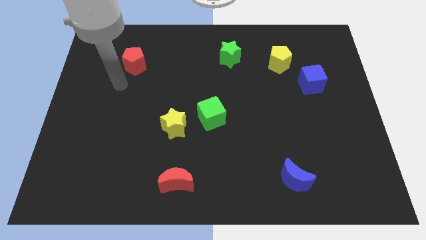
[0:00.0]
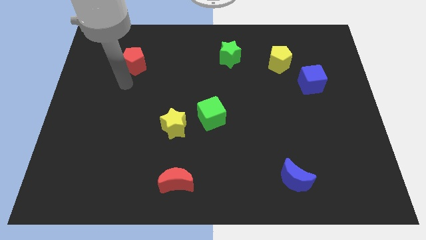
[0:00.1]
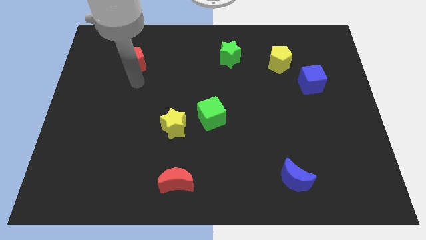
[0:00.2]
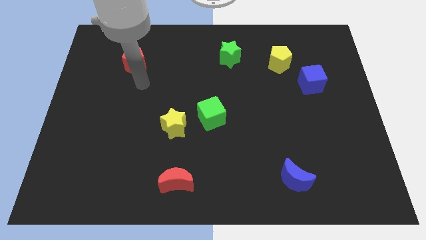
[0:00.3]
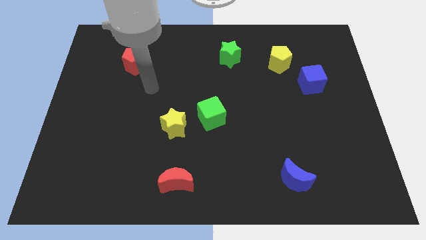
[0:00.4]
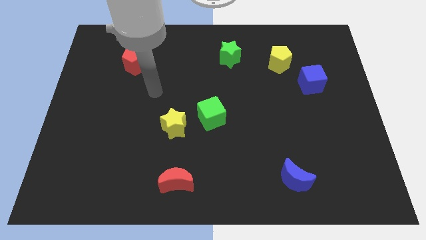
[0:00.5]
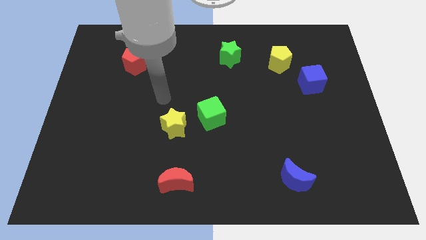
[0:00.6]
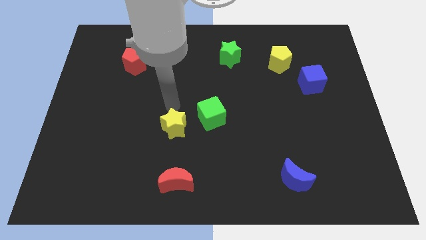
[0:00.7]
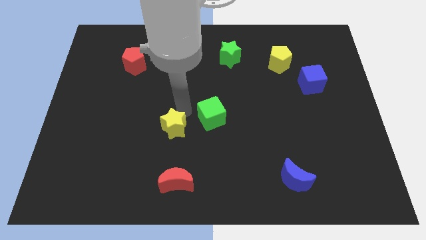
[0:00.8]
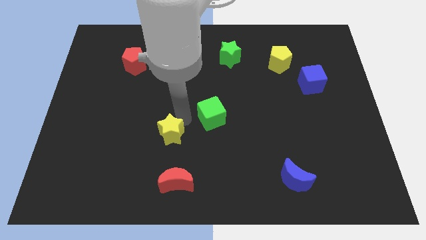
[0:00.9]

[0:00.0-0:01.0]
pull the green cube apart from the yellow star

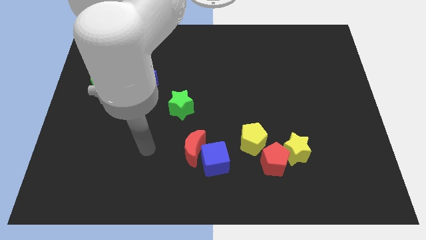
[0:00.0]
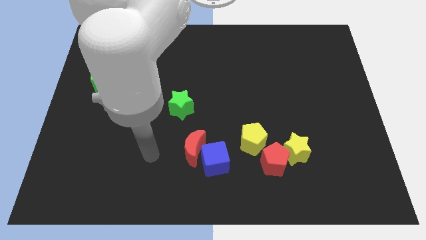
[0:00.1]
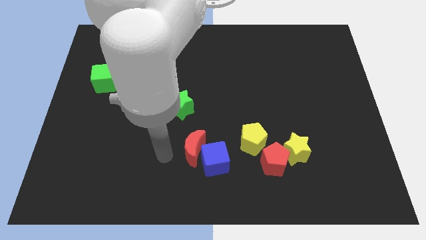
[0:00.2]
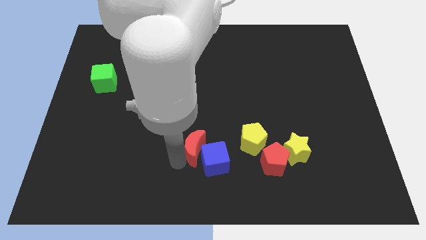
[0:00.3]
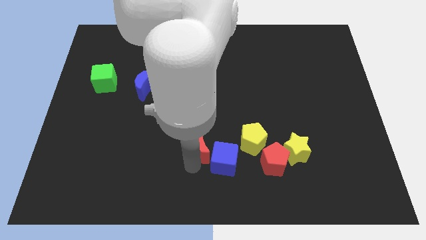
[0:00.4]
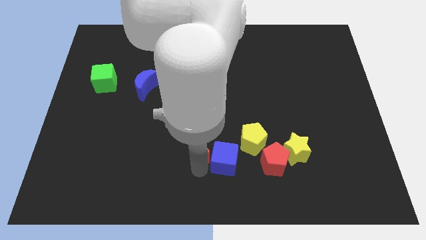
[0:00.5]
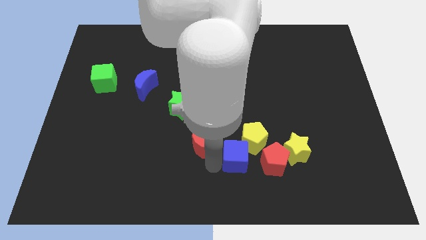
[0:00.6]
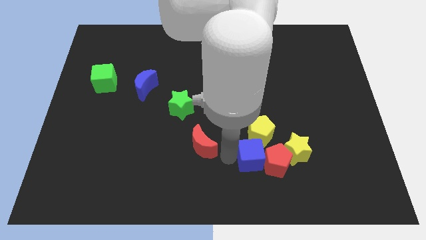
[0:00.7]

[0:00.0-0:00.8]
pull the red moon apart from the blue cube

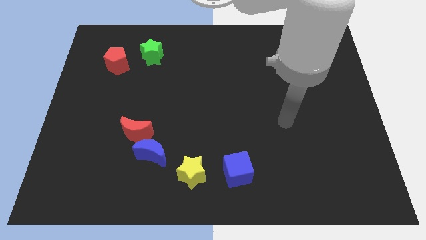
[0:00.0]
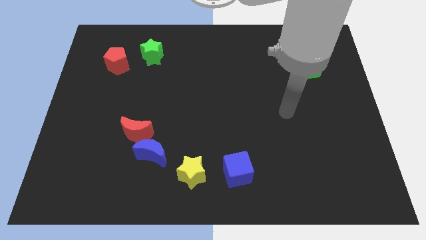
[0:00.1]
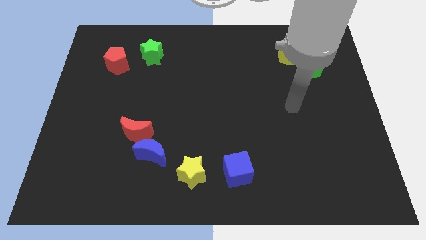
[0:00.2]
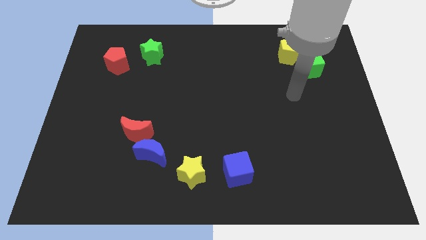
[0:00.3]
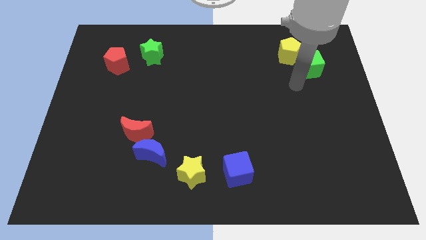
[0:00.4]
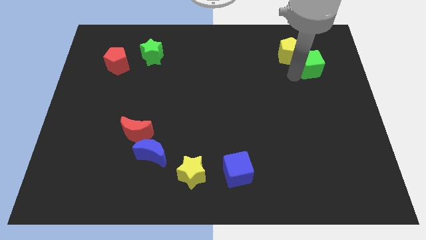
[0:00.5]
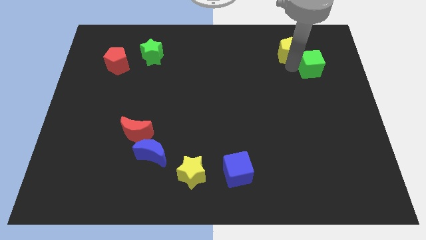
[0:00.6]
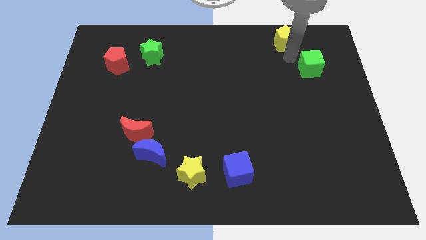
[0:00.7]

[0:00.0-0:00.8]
pull the green cube apart from the yellow pentagon

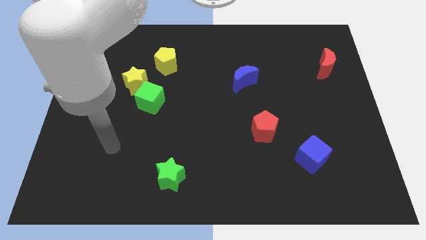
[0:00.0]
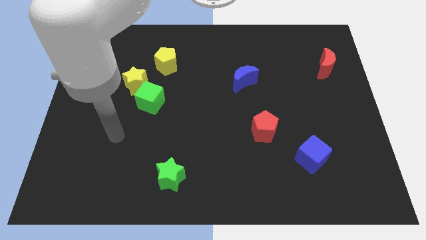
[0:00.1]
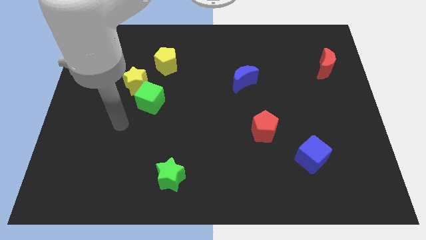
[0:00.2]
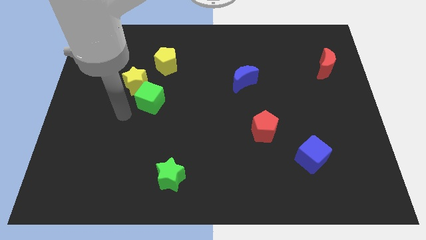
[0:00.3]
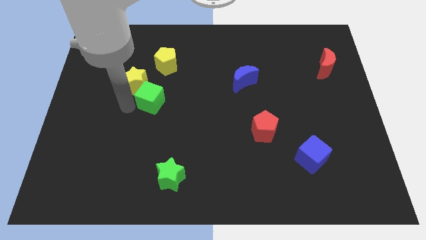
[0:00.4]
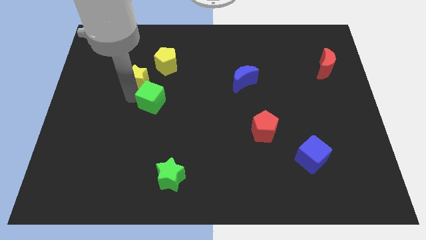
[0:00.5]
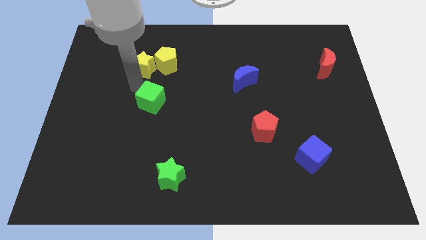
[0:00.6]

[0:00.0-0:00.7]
move the green cube away from the yellow star

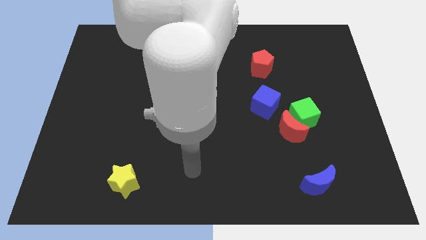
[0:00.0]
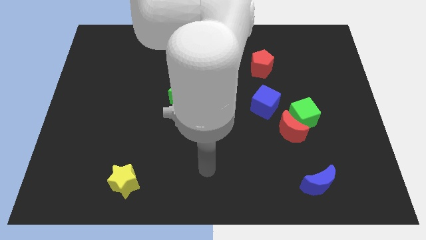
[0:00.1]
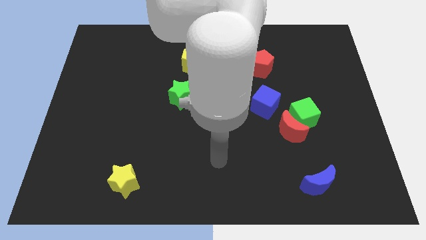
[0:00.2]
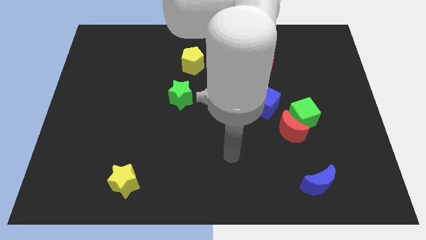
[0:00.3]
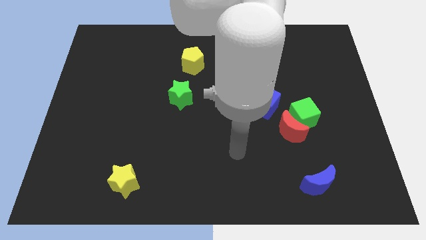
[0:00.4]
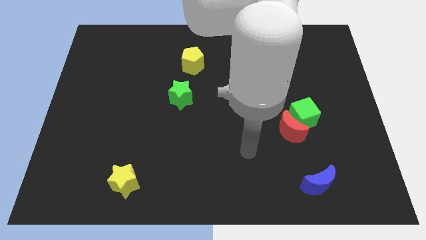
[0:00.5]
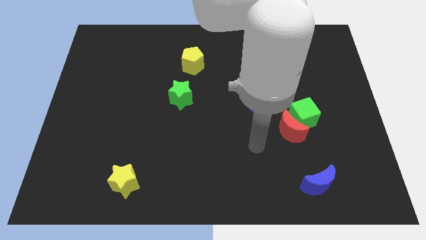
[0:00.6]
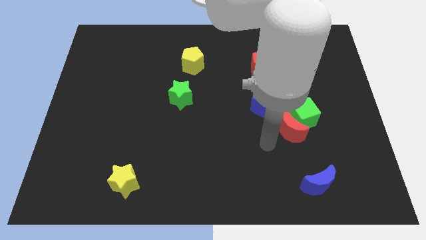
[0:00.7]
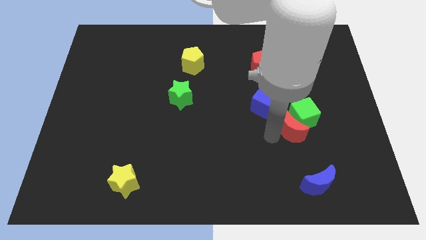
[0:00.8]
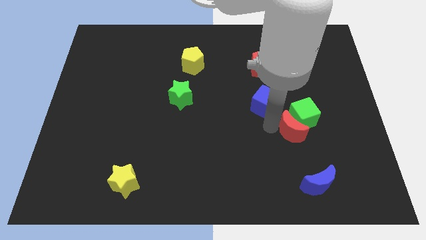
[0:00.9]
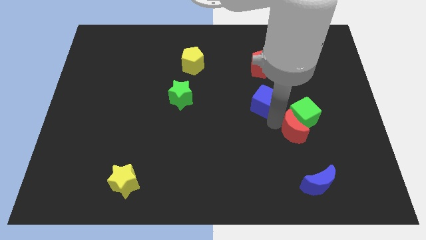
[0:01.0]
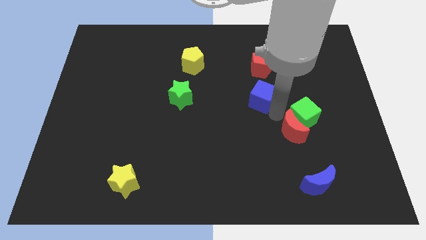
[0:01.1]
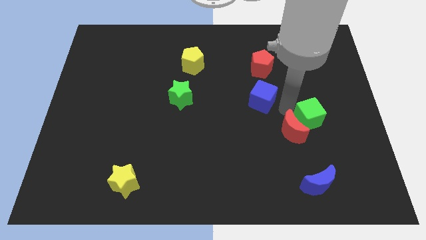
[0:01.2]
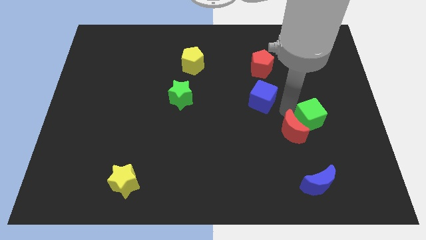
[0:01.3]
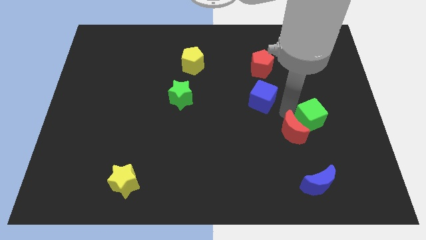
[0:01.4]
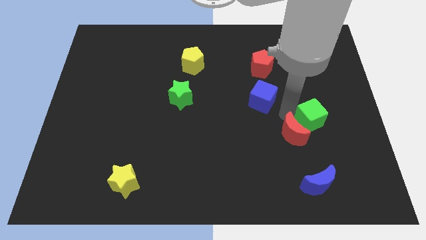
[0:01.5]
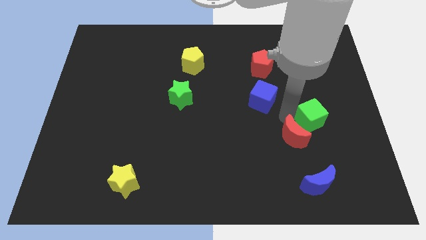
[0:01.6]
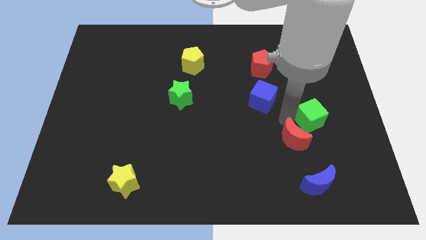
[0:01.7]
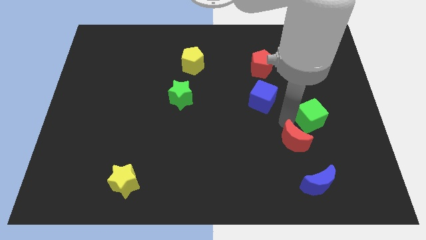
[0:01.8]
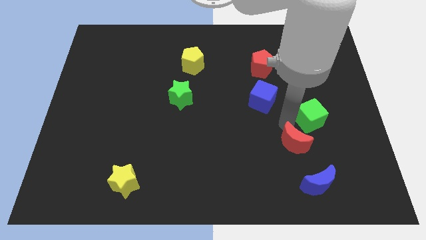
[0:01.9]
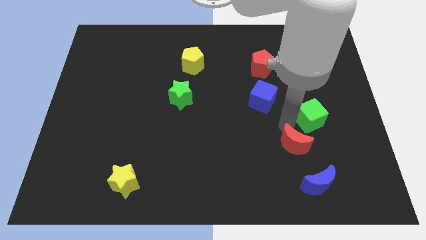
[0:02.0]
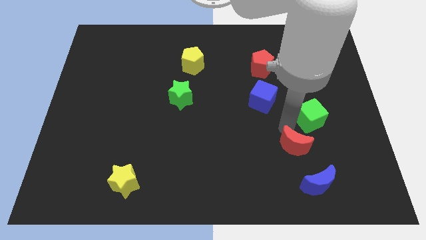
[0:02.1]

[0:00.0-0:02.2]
separate the red moon from the green cube and blue cube

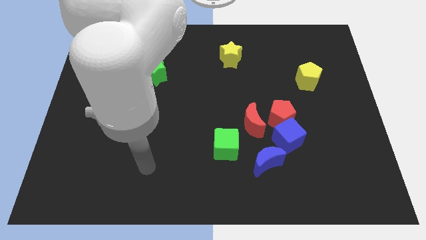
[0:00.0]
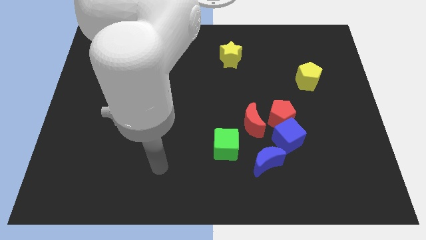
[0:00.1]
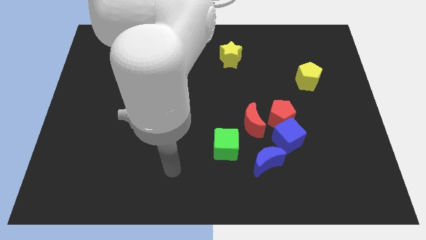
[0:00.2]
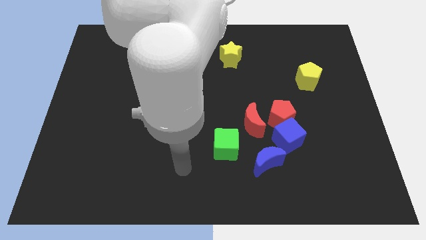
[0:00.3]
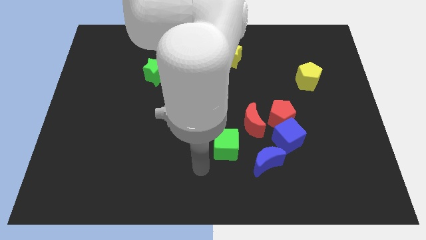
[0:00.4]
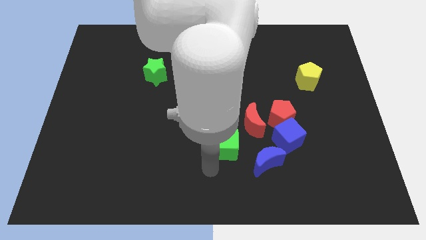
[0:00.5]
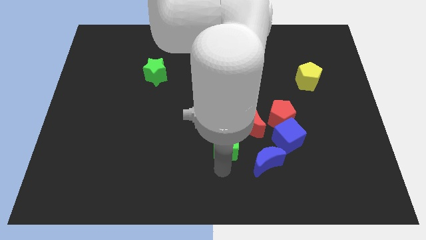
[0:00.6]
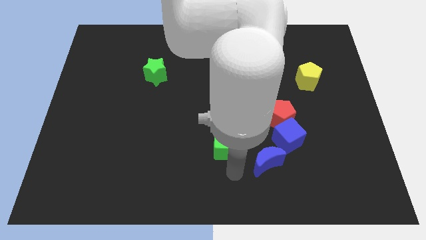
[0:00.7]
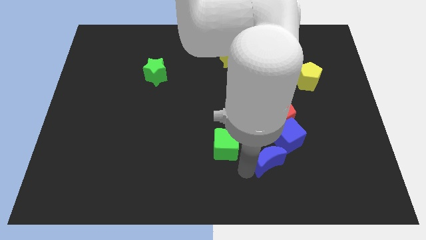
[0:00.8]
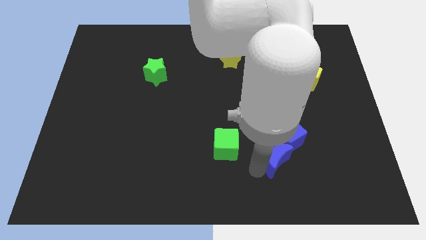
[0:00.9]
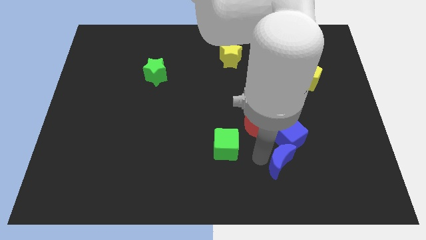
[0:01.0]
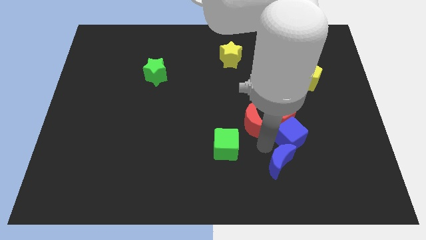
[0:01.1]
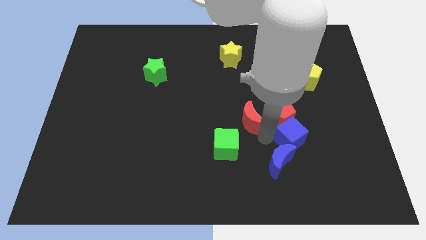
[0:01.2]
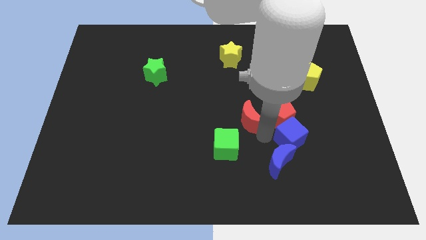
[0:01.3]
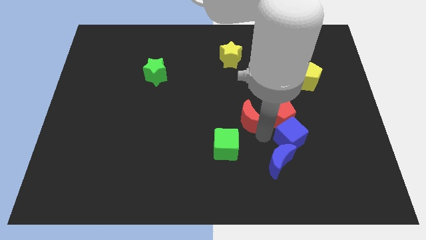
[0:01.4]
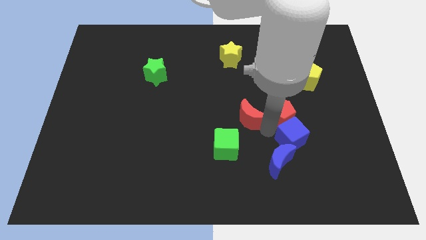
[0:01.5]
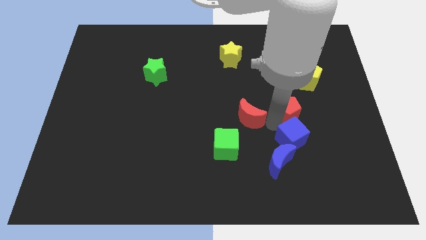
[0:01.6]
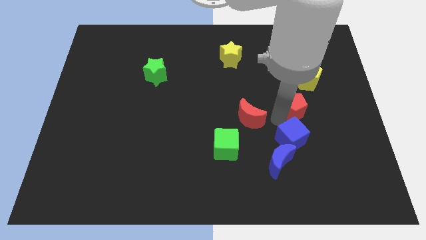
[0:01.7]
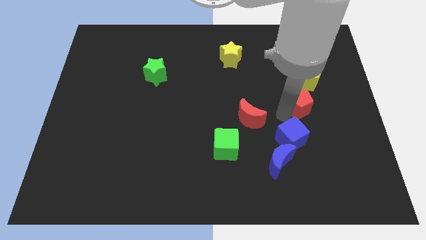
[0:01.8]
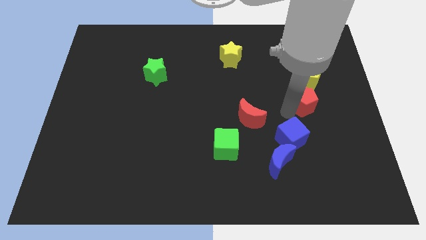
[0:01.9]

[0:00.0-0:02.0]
move the red pentagon away from the blue cube and red moon

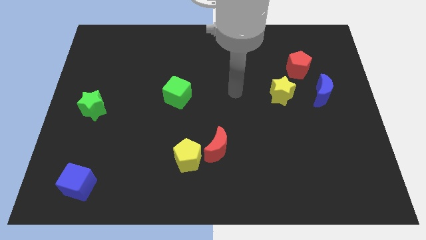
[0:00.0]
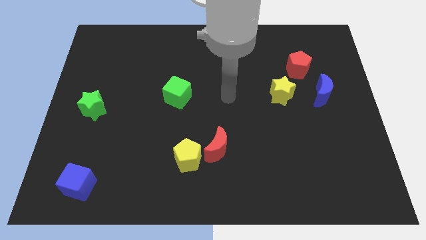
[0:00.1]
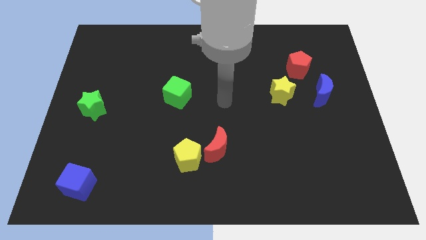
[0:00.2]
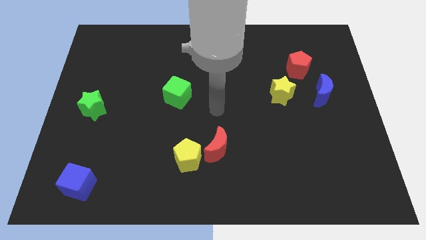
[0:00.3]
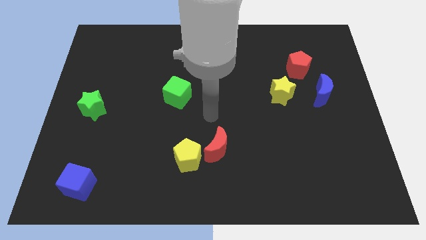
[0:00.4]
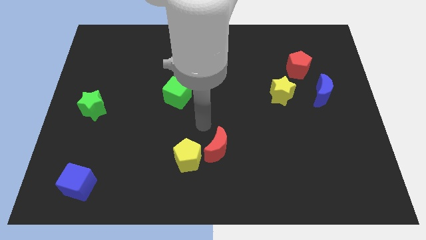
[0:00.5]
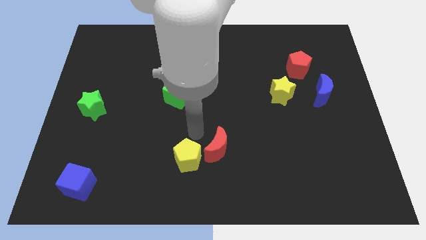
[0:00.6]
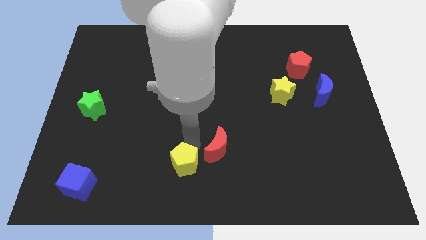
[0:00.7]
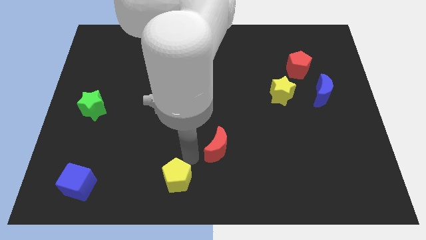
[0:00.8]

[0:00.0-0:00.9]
move the red moon away from the yellow pentagon

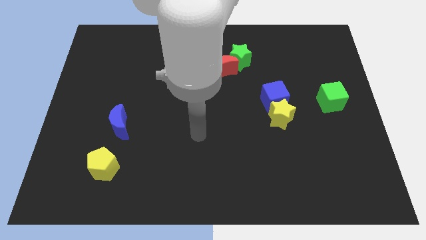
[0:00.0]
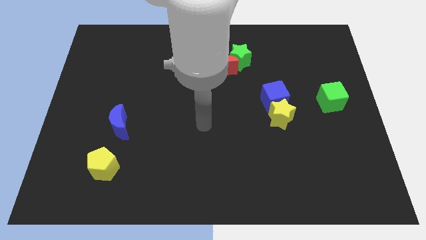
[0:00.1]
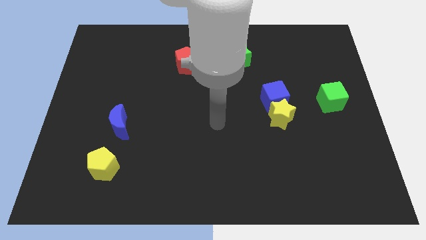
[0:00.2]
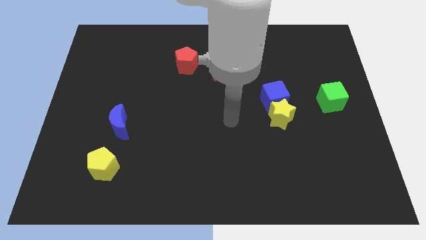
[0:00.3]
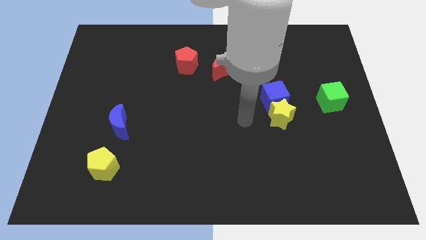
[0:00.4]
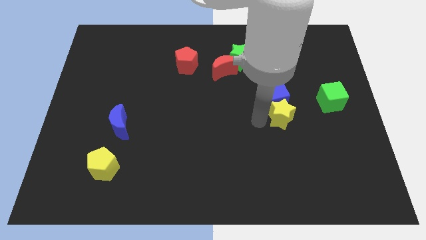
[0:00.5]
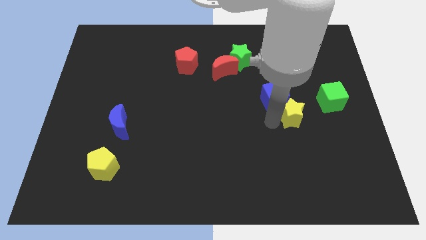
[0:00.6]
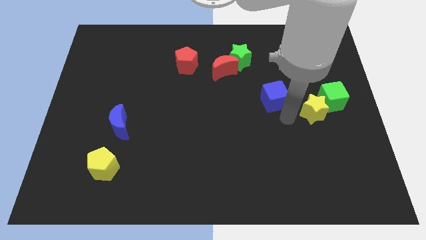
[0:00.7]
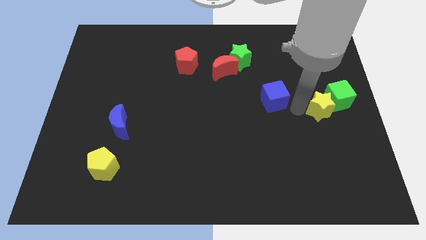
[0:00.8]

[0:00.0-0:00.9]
pull the blue cube apart from the yellow star

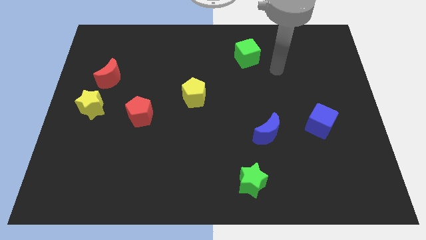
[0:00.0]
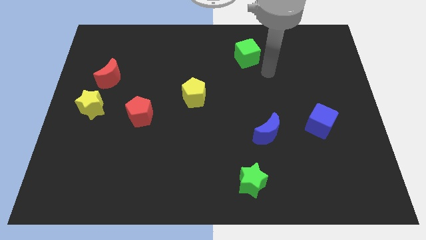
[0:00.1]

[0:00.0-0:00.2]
pull the red moon apart from the yellow star

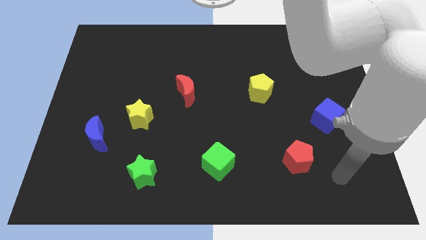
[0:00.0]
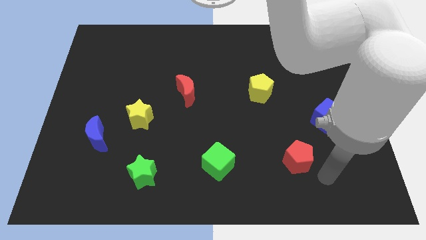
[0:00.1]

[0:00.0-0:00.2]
pull the blue moon apart from the yellow star
